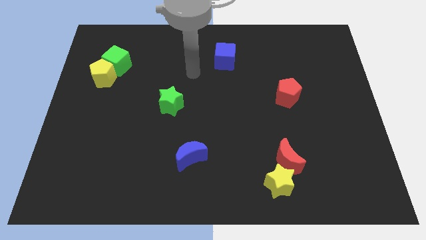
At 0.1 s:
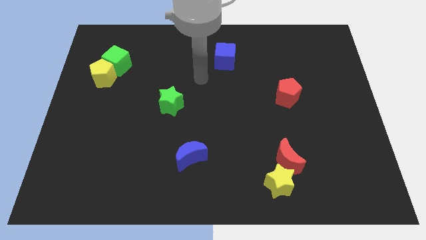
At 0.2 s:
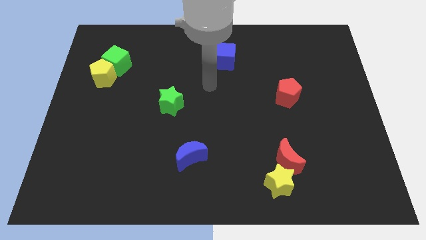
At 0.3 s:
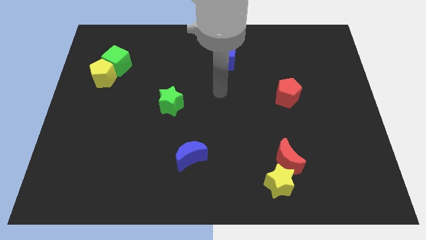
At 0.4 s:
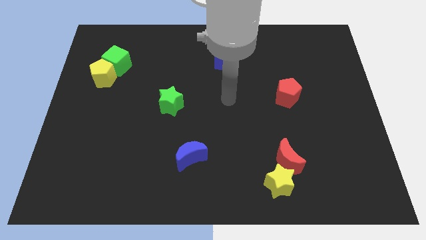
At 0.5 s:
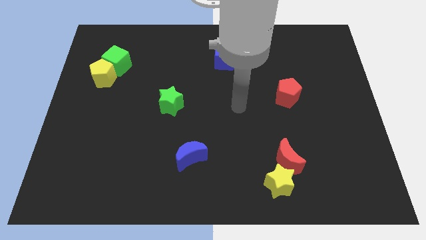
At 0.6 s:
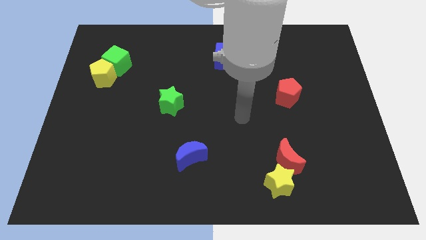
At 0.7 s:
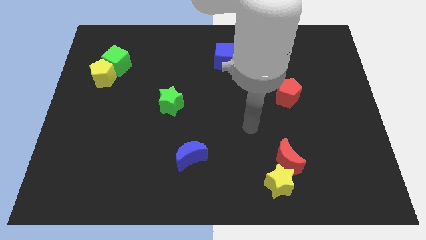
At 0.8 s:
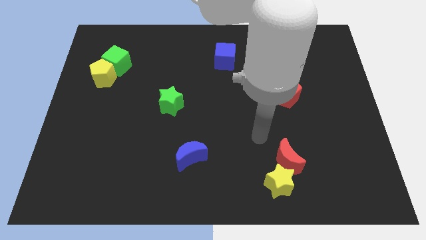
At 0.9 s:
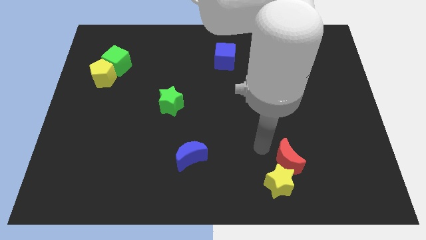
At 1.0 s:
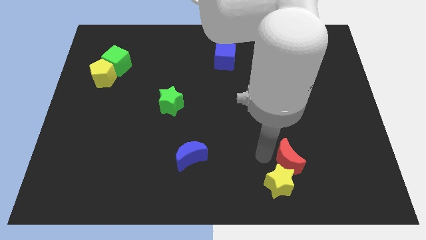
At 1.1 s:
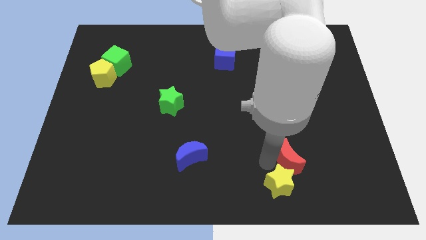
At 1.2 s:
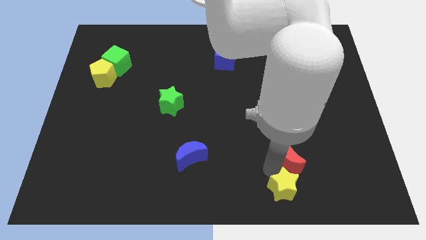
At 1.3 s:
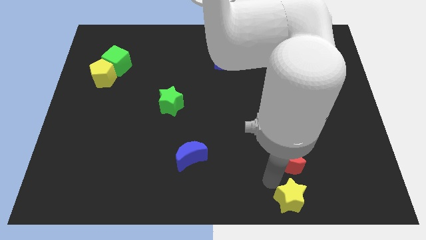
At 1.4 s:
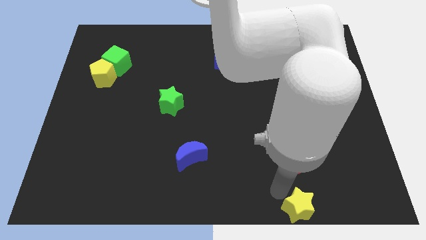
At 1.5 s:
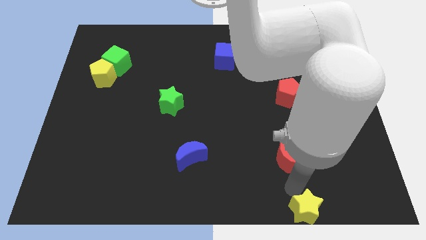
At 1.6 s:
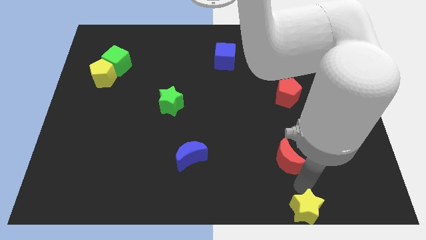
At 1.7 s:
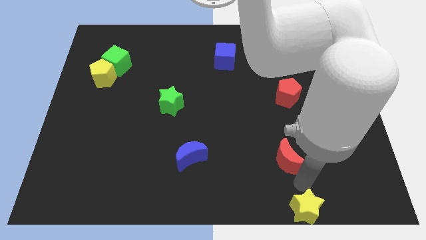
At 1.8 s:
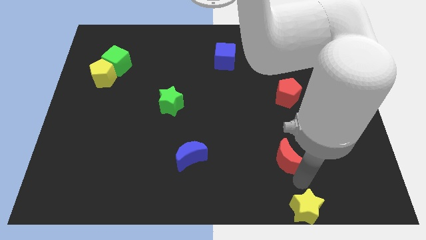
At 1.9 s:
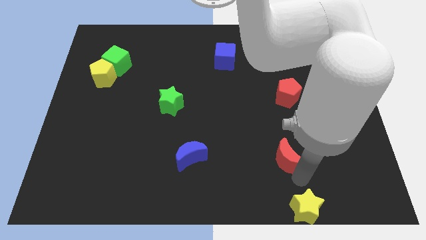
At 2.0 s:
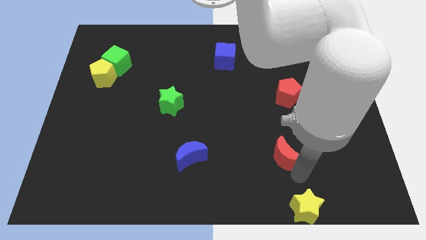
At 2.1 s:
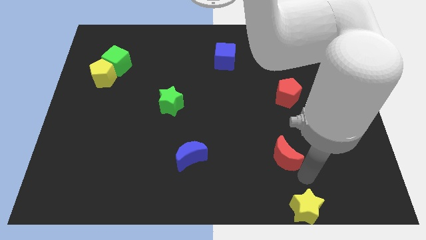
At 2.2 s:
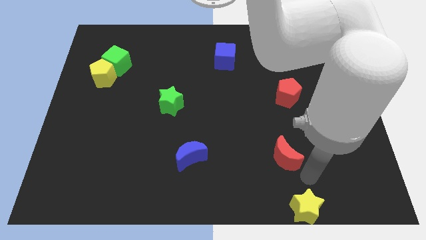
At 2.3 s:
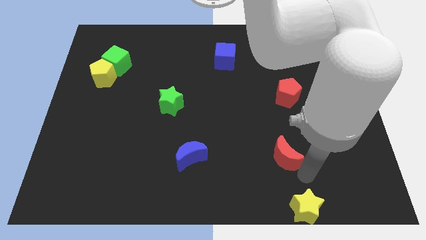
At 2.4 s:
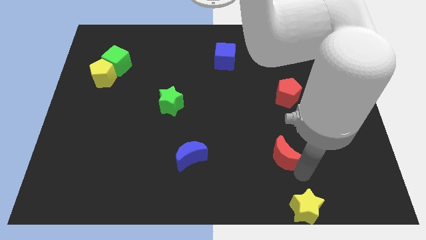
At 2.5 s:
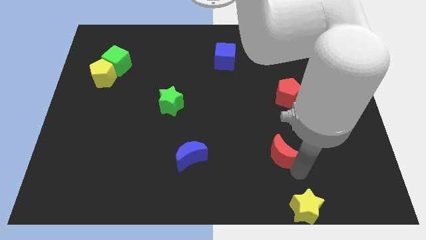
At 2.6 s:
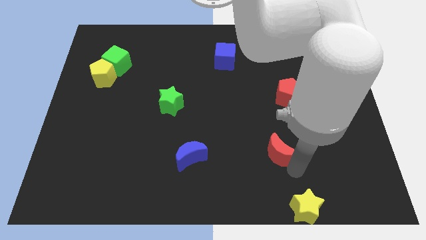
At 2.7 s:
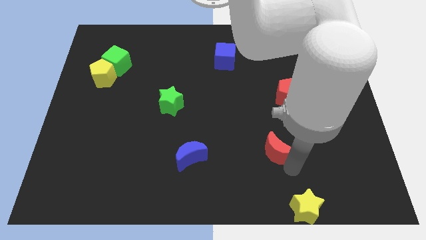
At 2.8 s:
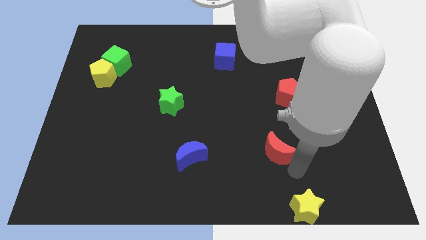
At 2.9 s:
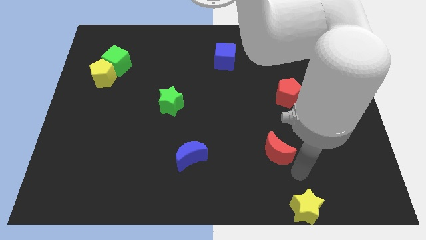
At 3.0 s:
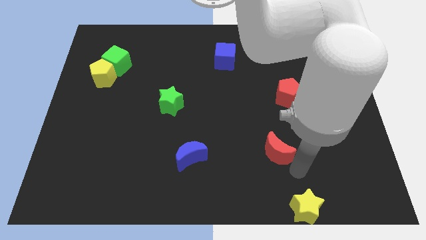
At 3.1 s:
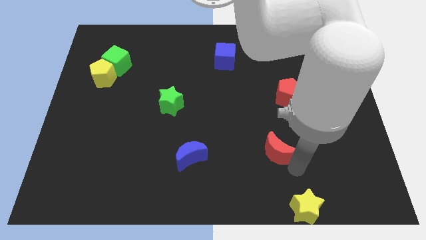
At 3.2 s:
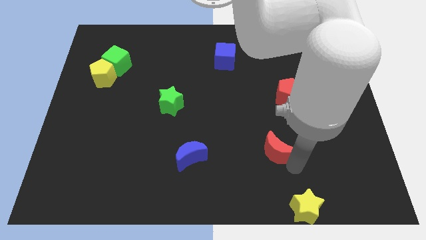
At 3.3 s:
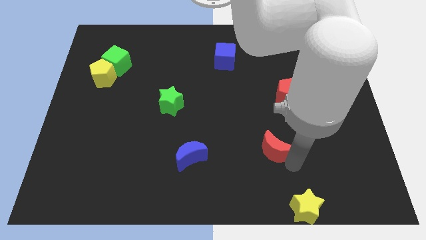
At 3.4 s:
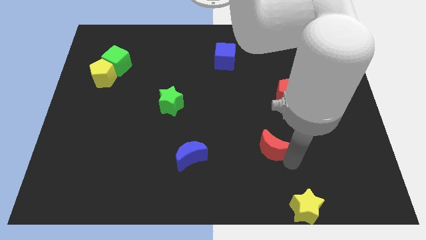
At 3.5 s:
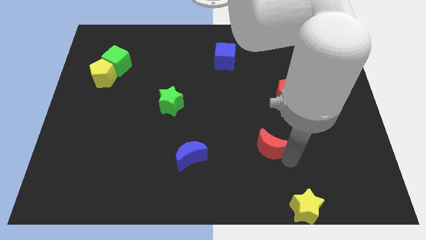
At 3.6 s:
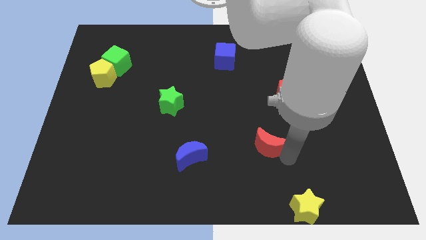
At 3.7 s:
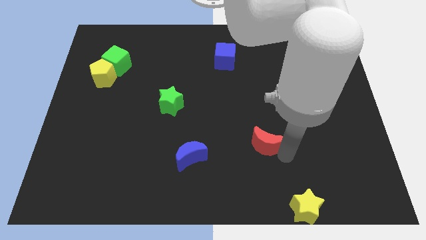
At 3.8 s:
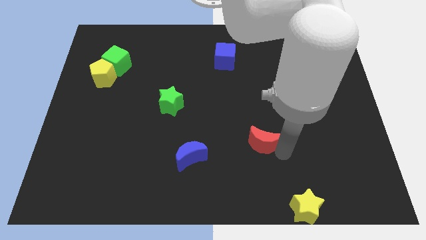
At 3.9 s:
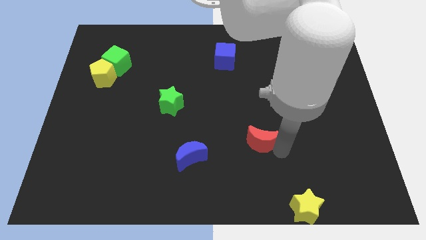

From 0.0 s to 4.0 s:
move the red moon up and to the left a little bit

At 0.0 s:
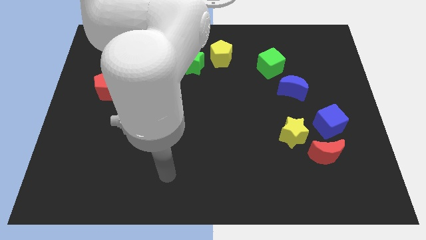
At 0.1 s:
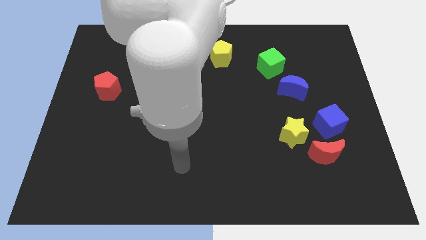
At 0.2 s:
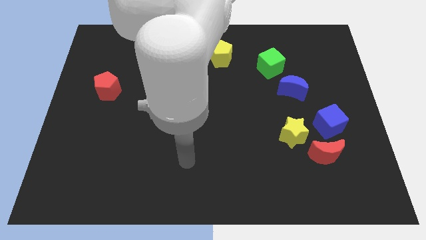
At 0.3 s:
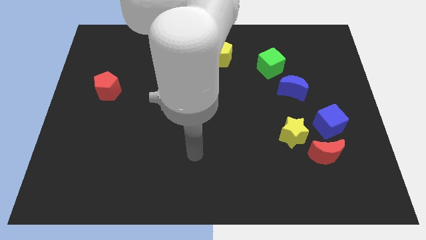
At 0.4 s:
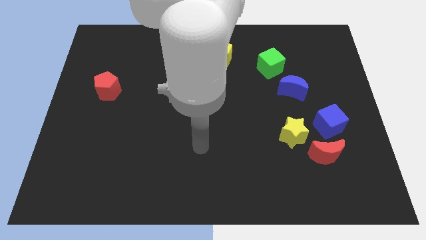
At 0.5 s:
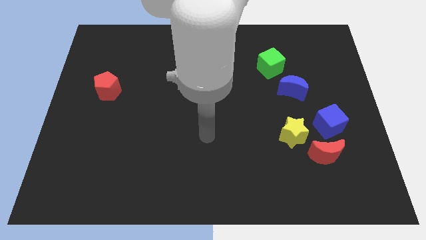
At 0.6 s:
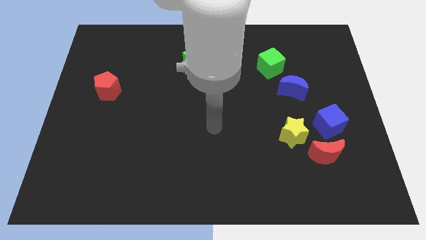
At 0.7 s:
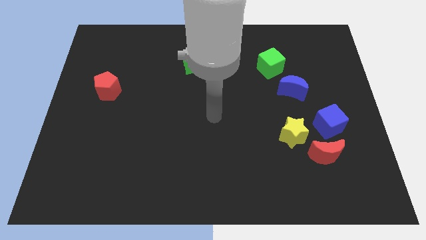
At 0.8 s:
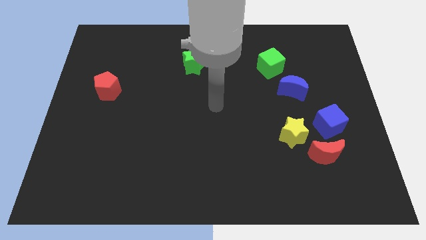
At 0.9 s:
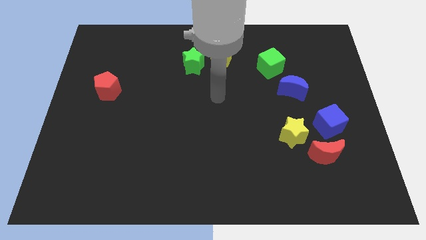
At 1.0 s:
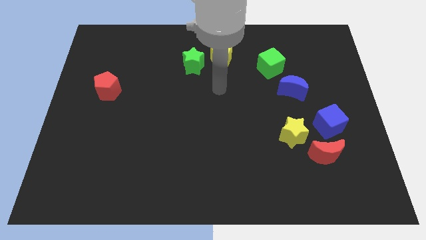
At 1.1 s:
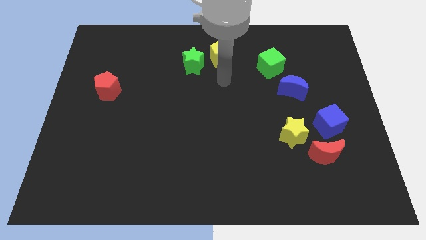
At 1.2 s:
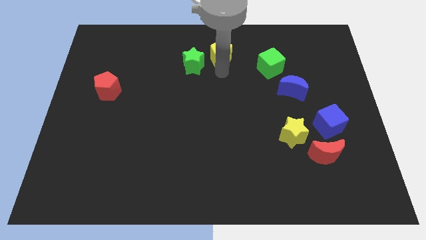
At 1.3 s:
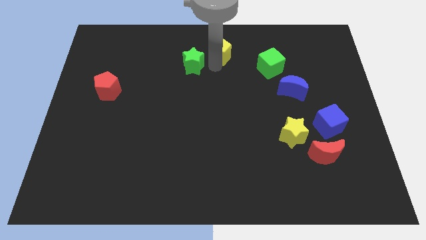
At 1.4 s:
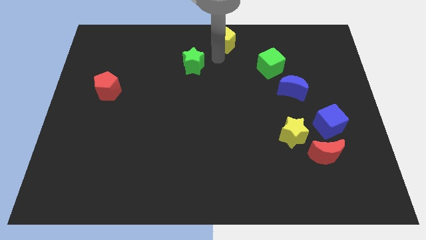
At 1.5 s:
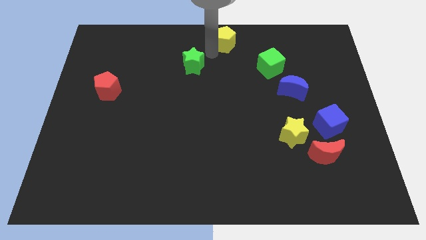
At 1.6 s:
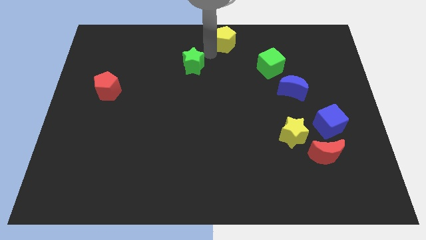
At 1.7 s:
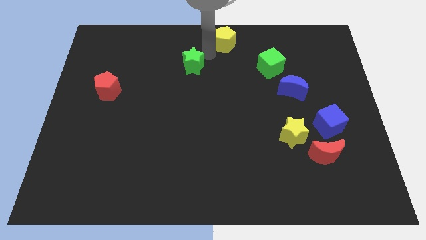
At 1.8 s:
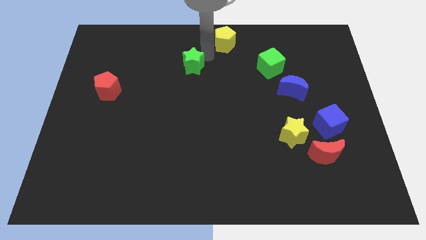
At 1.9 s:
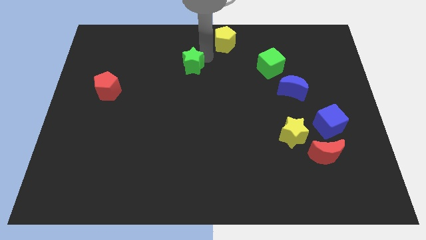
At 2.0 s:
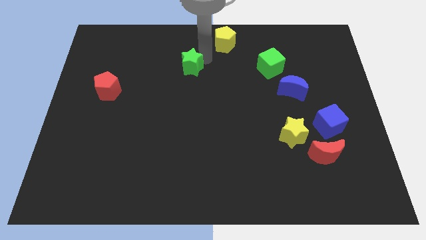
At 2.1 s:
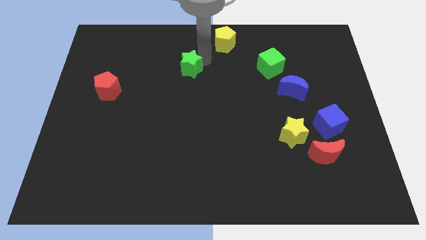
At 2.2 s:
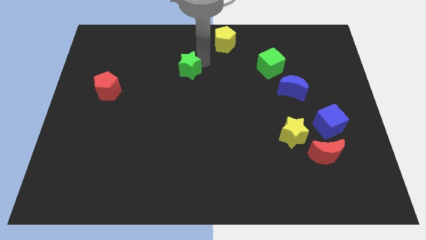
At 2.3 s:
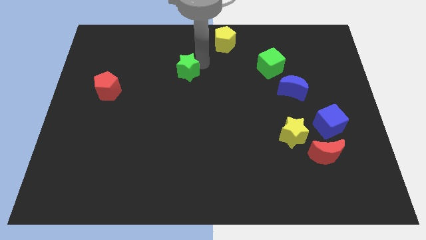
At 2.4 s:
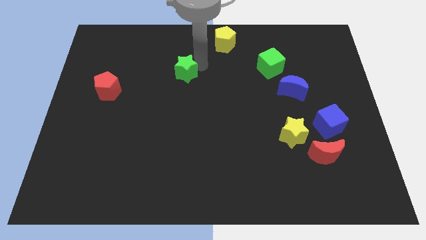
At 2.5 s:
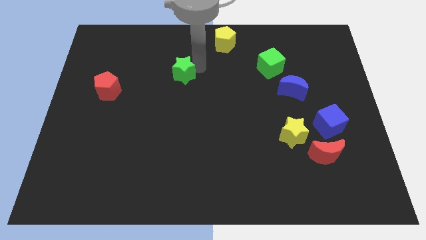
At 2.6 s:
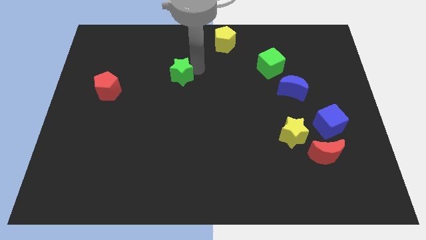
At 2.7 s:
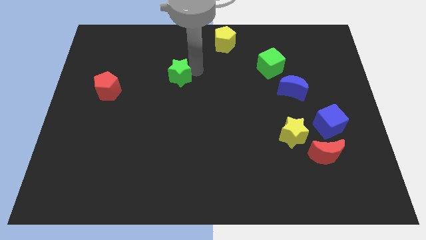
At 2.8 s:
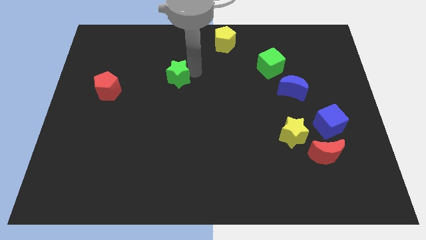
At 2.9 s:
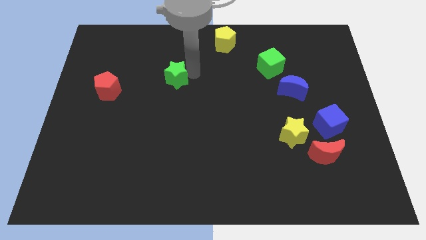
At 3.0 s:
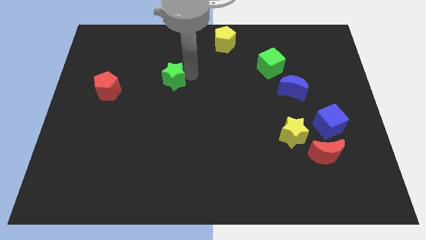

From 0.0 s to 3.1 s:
push the green star diagonally downwards and to the left a little bit

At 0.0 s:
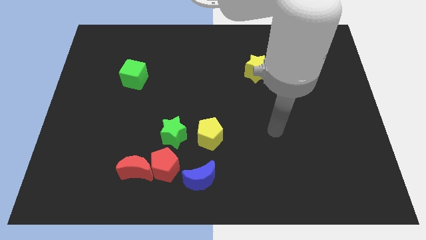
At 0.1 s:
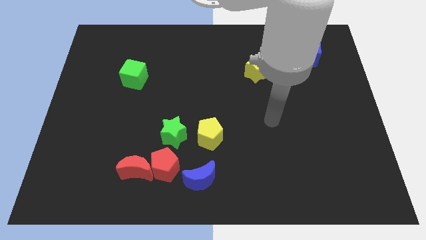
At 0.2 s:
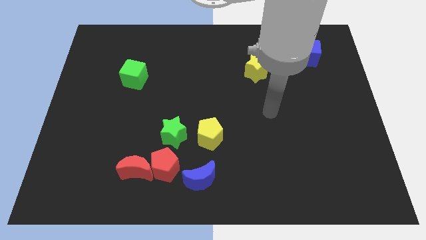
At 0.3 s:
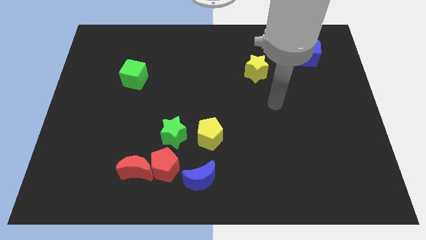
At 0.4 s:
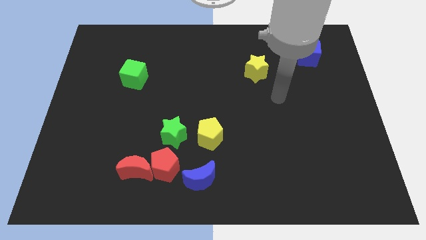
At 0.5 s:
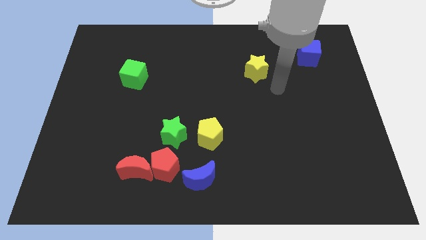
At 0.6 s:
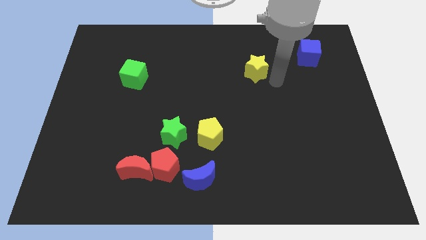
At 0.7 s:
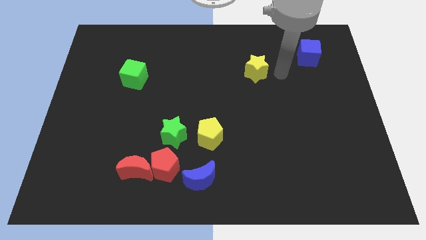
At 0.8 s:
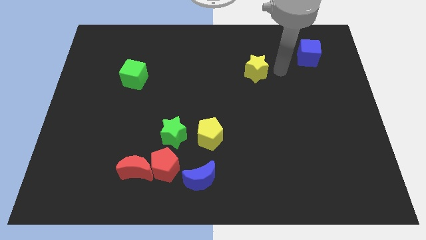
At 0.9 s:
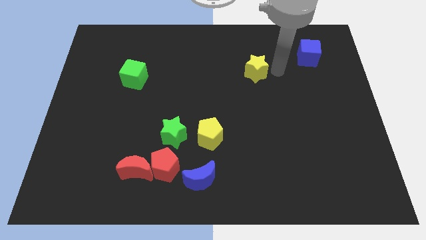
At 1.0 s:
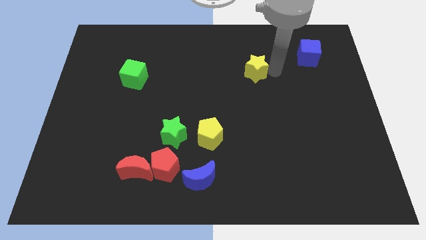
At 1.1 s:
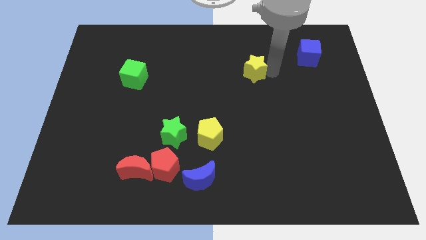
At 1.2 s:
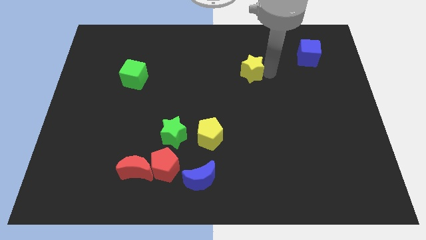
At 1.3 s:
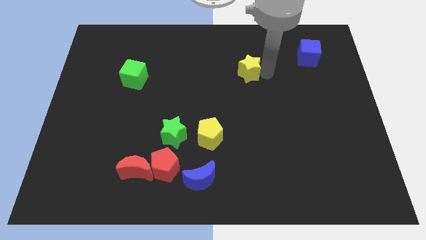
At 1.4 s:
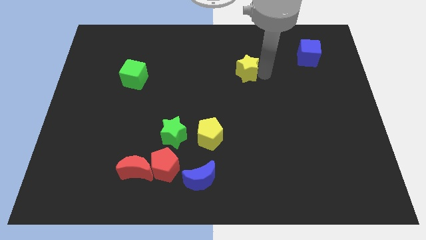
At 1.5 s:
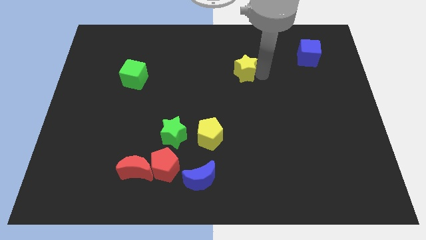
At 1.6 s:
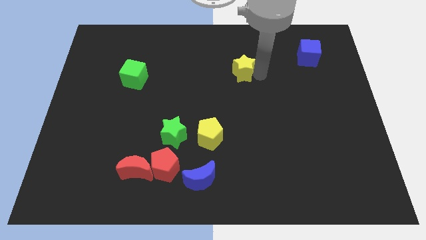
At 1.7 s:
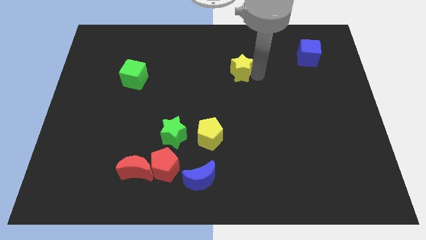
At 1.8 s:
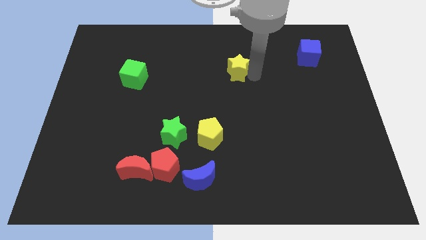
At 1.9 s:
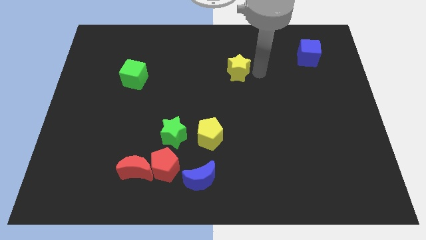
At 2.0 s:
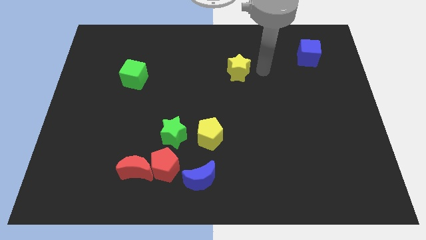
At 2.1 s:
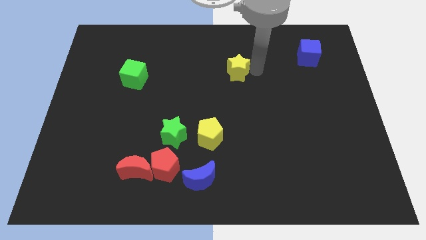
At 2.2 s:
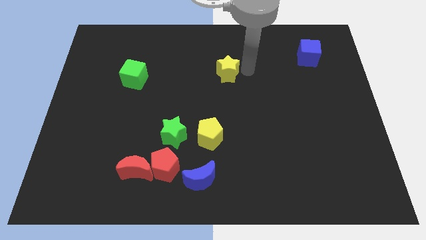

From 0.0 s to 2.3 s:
push the yellow star left somewhat
